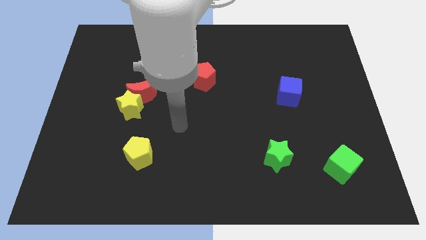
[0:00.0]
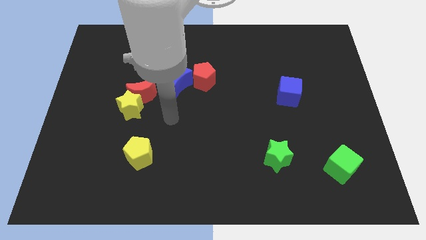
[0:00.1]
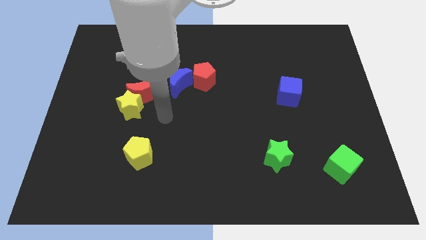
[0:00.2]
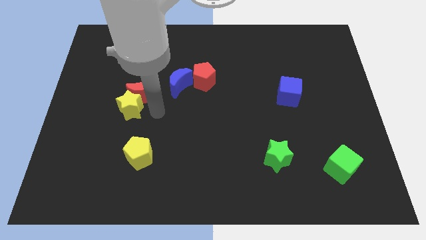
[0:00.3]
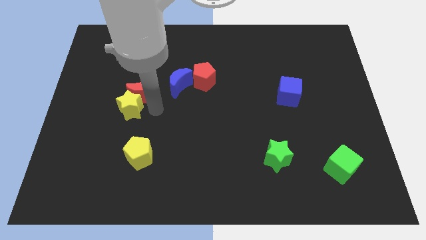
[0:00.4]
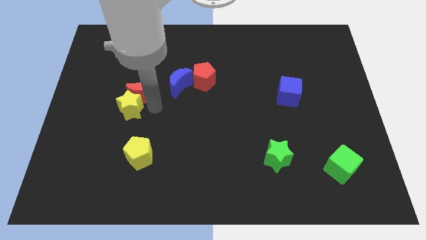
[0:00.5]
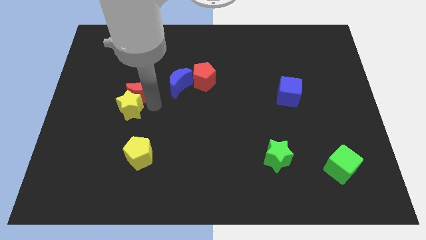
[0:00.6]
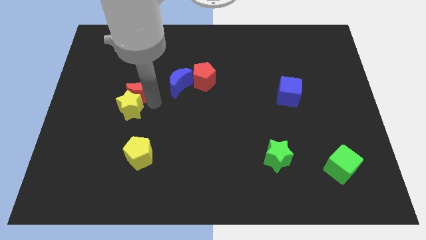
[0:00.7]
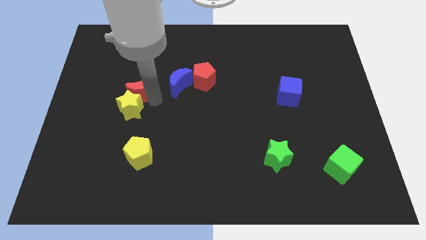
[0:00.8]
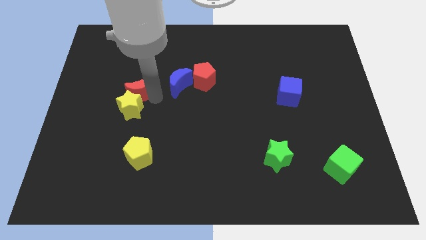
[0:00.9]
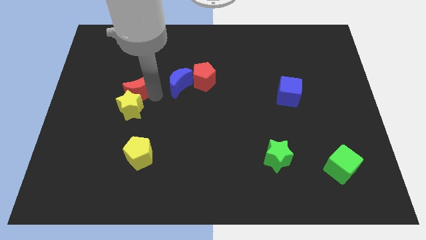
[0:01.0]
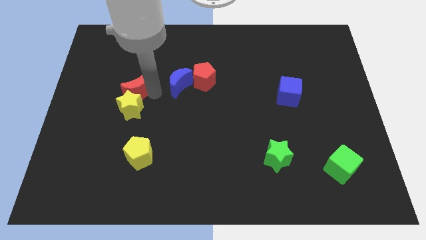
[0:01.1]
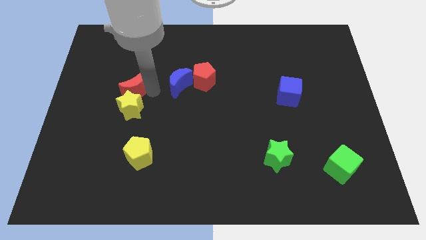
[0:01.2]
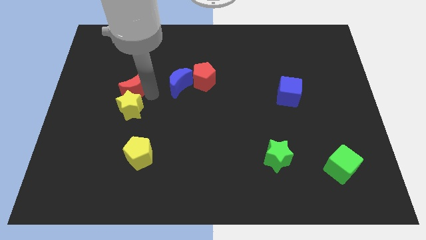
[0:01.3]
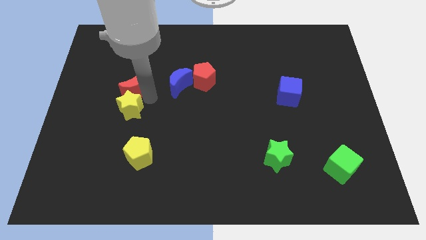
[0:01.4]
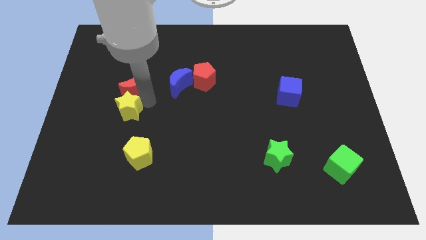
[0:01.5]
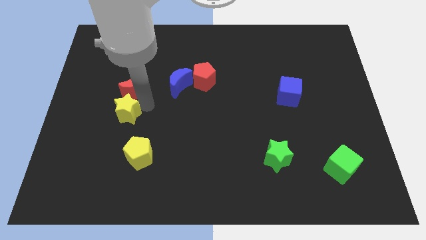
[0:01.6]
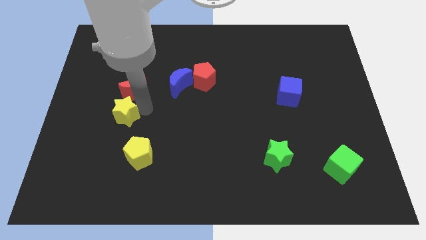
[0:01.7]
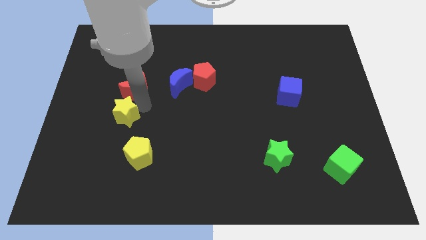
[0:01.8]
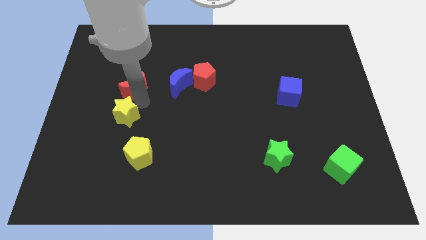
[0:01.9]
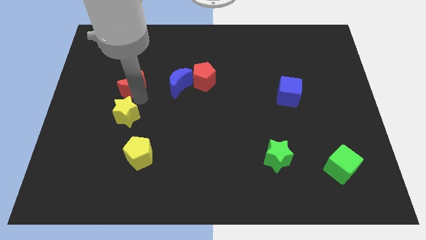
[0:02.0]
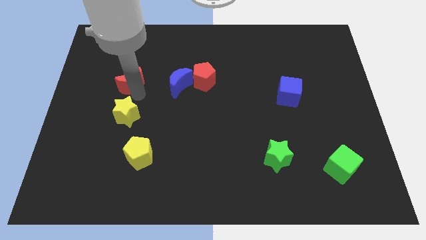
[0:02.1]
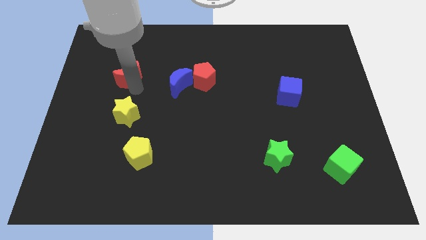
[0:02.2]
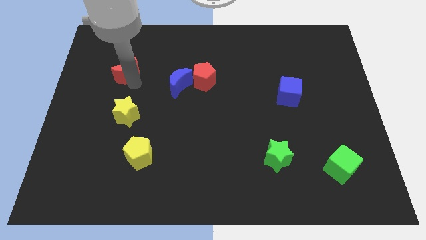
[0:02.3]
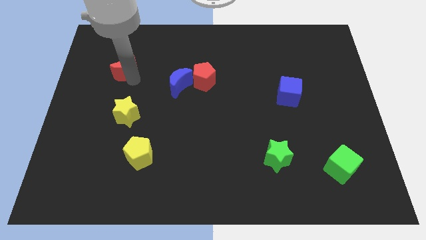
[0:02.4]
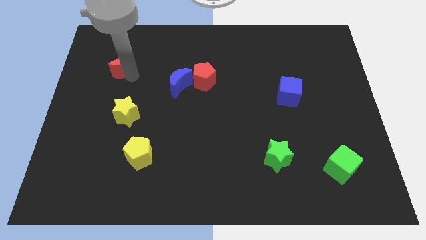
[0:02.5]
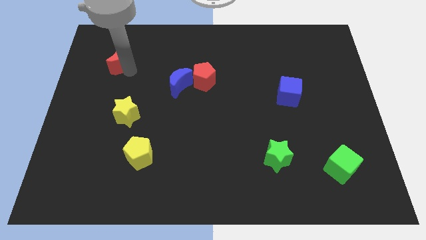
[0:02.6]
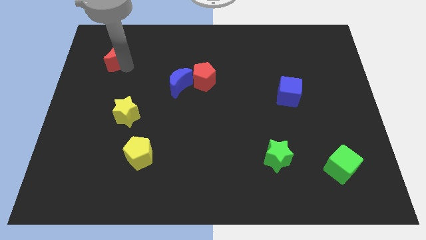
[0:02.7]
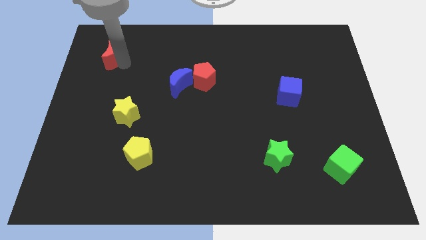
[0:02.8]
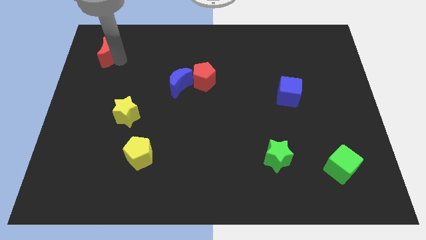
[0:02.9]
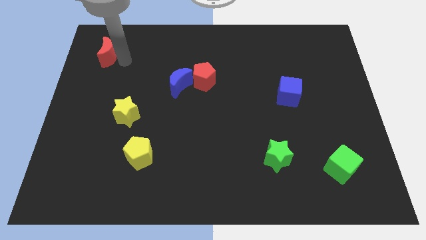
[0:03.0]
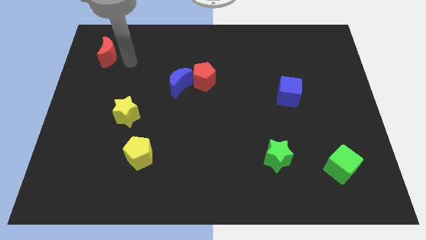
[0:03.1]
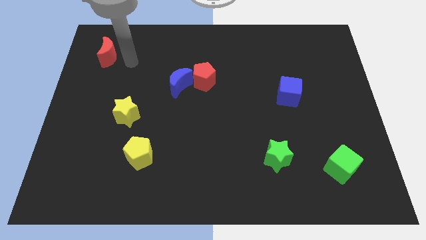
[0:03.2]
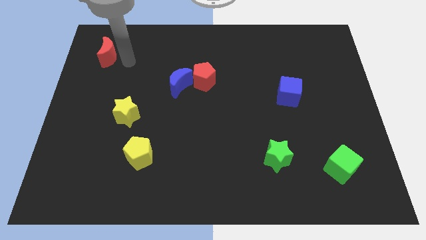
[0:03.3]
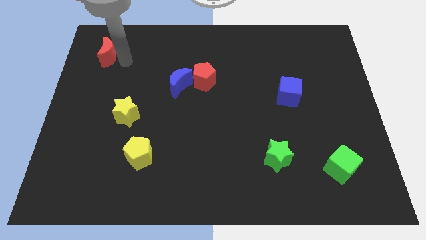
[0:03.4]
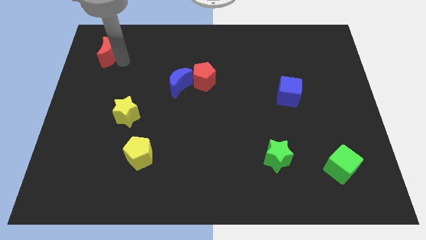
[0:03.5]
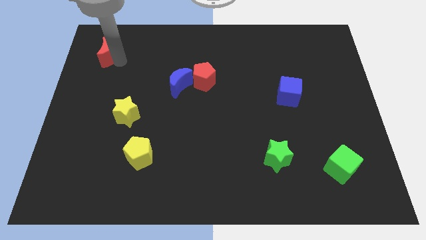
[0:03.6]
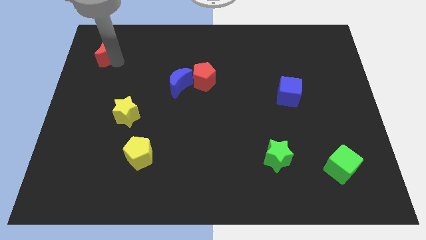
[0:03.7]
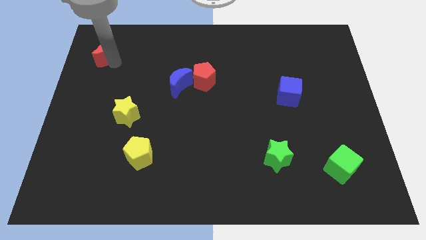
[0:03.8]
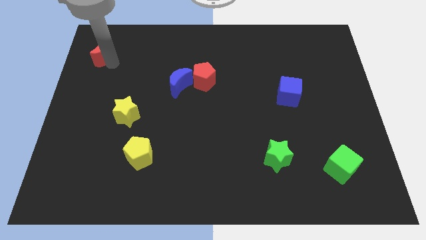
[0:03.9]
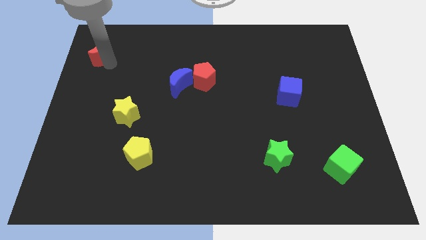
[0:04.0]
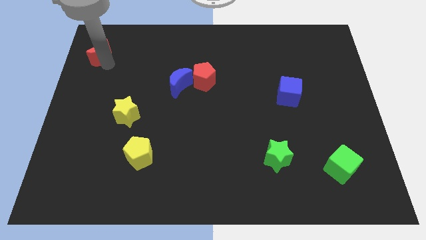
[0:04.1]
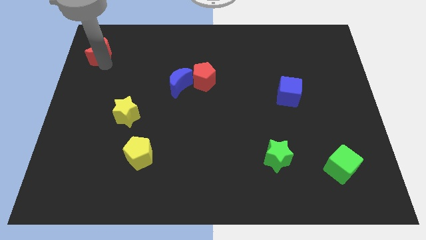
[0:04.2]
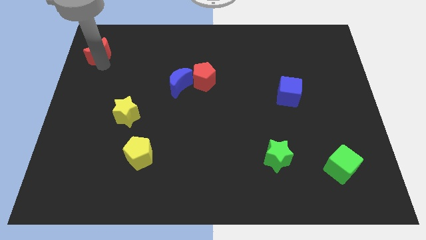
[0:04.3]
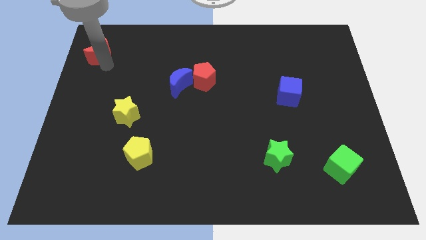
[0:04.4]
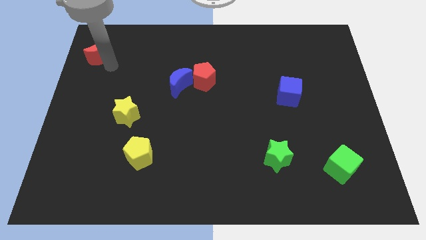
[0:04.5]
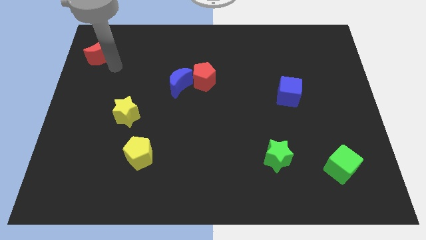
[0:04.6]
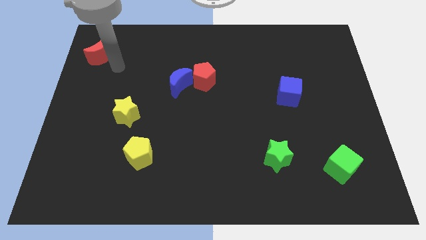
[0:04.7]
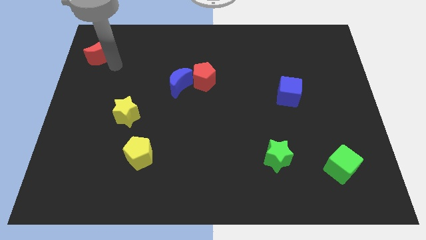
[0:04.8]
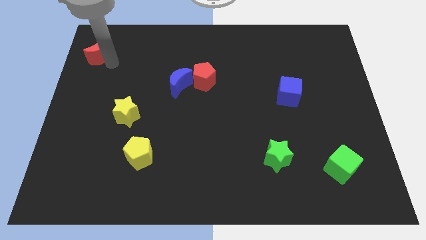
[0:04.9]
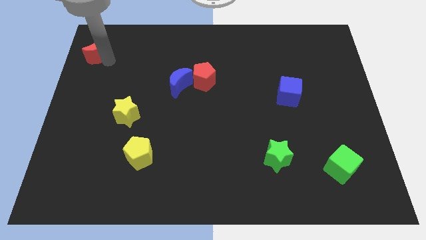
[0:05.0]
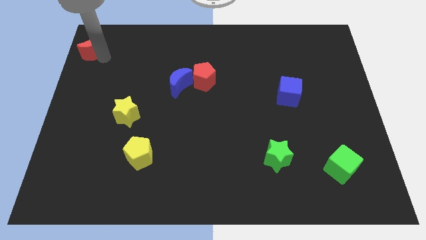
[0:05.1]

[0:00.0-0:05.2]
slide the red moon to the top left

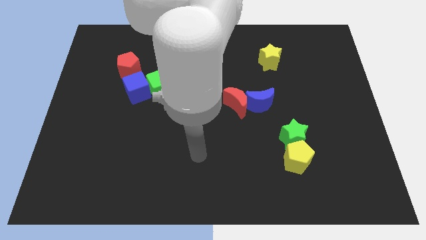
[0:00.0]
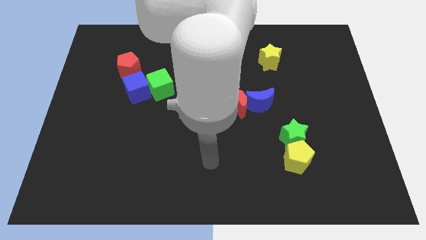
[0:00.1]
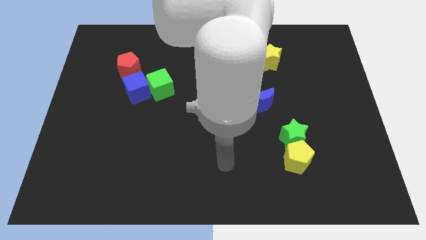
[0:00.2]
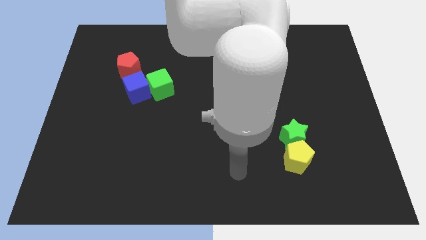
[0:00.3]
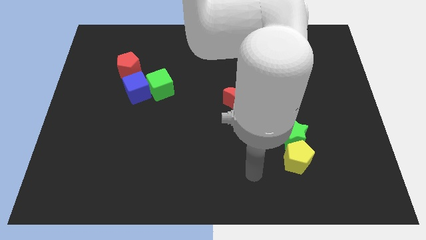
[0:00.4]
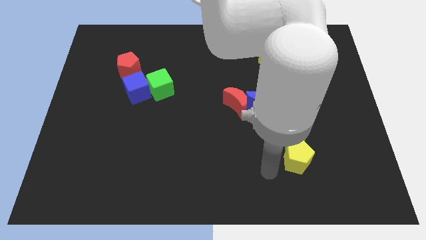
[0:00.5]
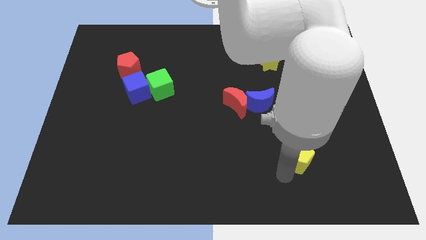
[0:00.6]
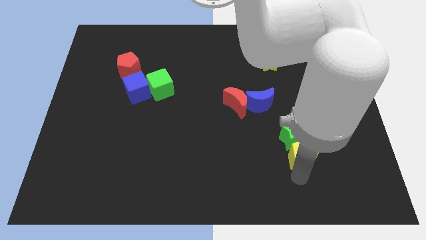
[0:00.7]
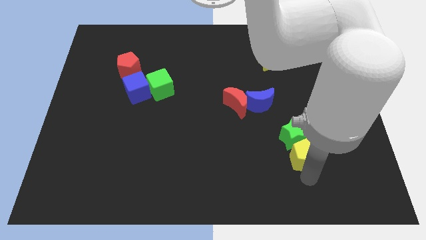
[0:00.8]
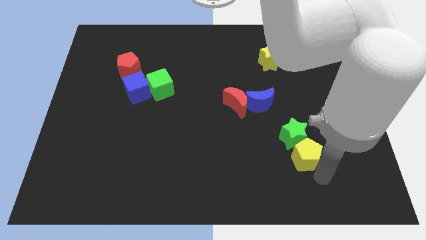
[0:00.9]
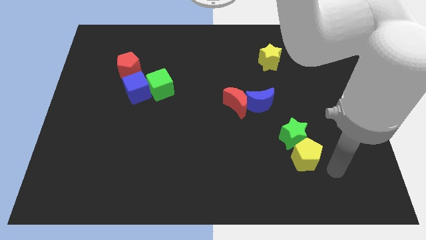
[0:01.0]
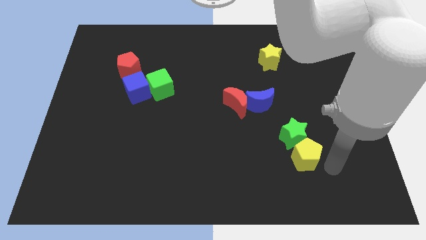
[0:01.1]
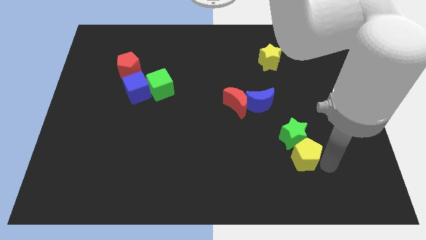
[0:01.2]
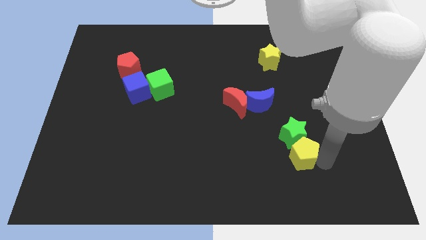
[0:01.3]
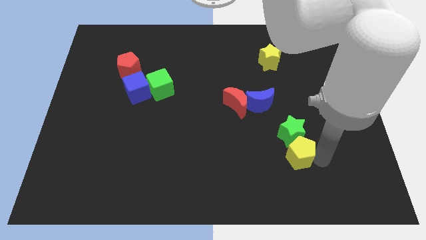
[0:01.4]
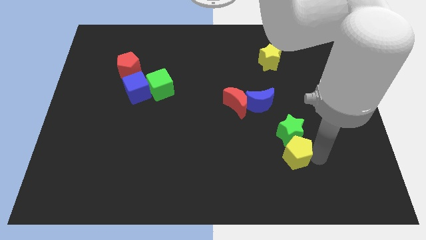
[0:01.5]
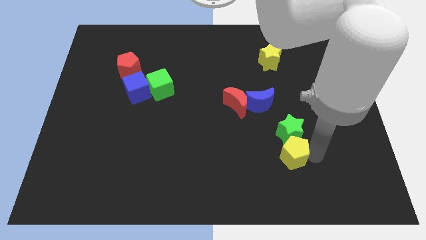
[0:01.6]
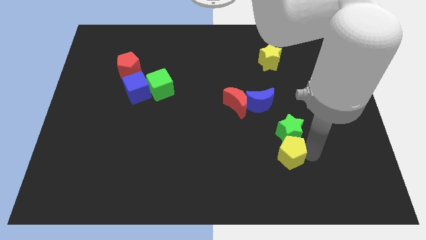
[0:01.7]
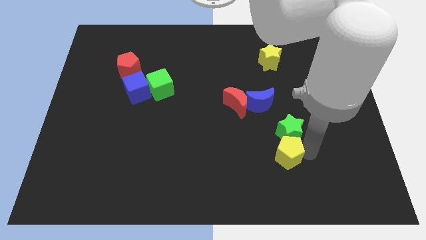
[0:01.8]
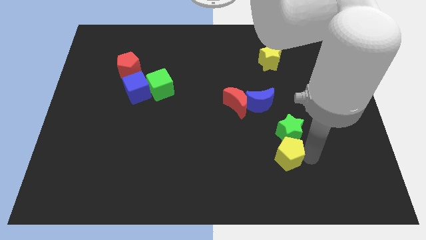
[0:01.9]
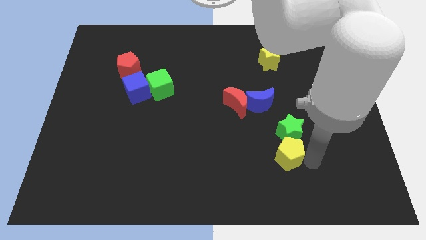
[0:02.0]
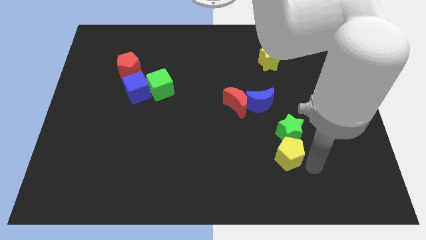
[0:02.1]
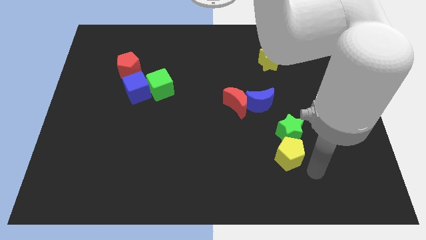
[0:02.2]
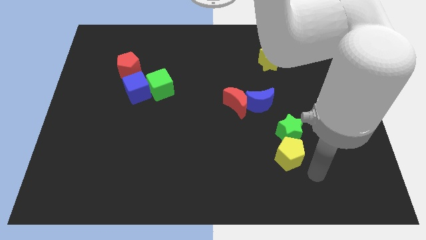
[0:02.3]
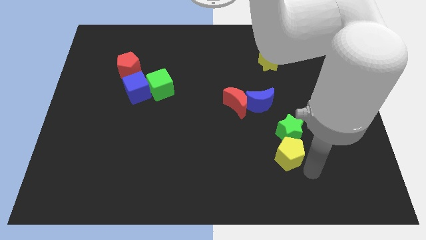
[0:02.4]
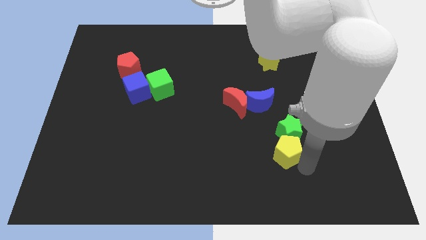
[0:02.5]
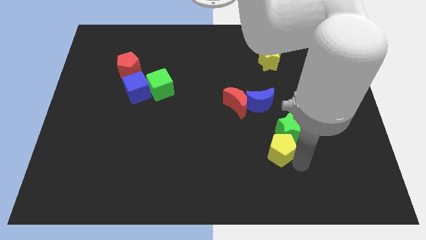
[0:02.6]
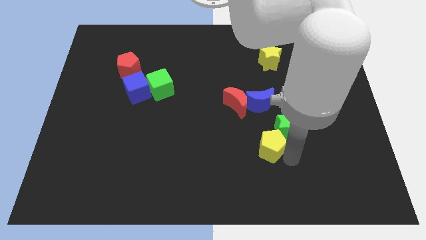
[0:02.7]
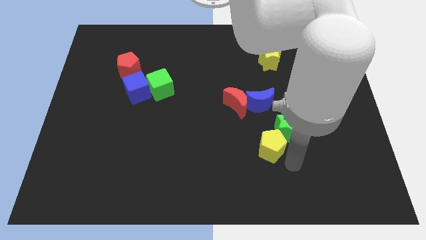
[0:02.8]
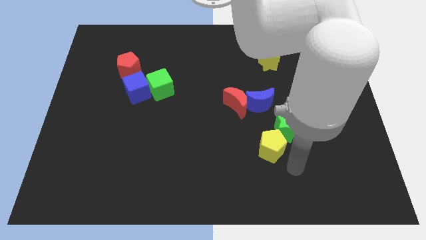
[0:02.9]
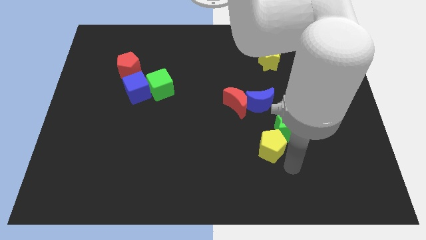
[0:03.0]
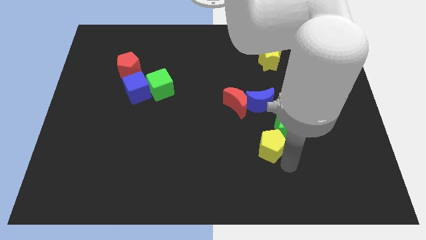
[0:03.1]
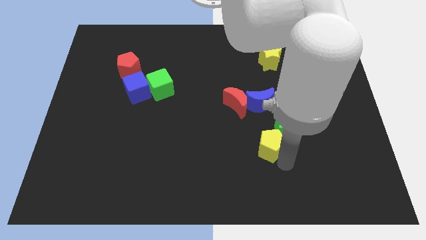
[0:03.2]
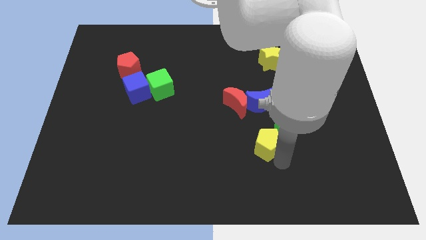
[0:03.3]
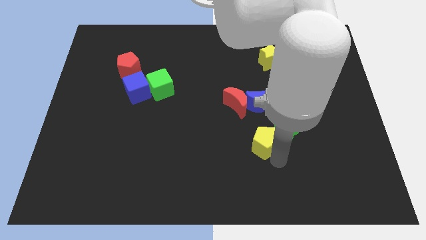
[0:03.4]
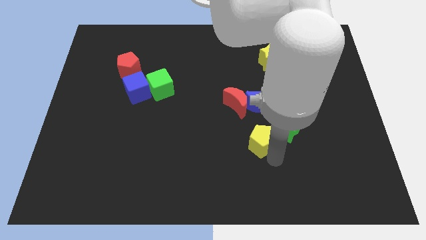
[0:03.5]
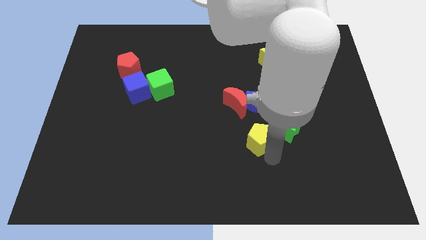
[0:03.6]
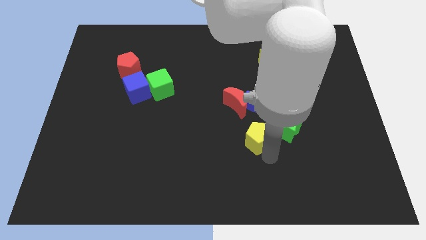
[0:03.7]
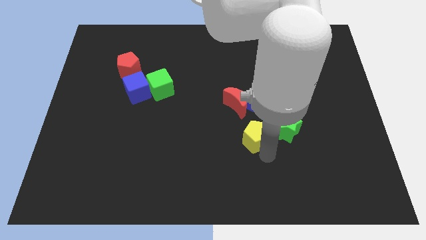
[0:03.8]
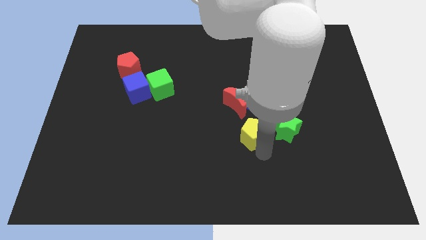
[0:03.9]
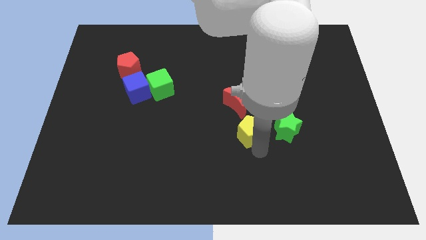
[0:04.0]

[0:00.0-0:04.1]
slide the yellow pentagon to the center
